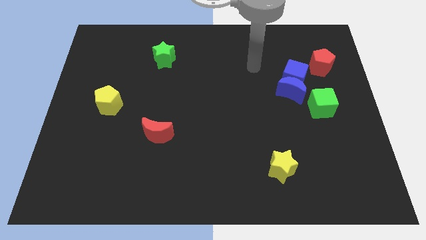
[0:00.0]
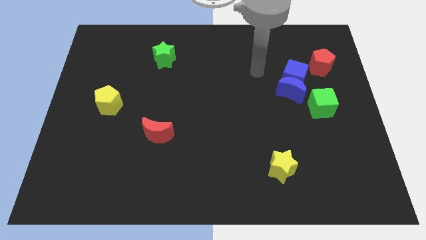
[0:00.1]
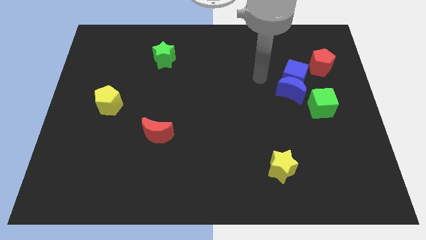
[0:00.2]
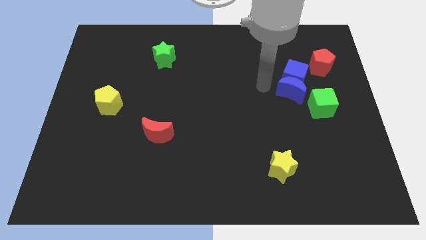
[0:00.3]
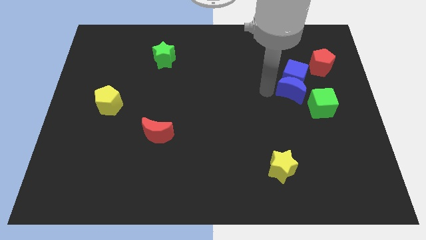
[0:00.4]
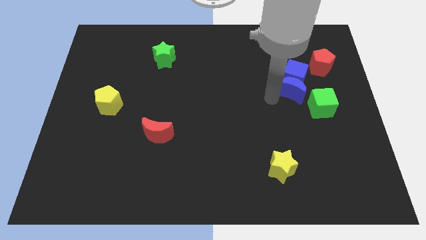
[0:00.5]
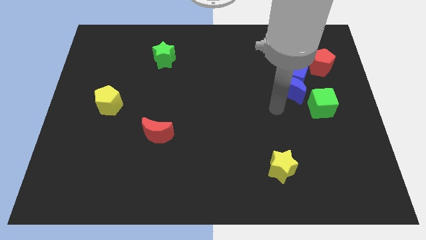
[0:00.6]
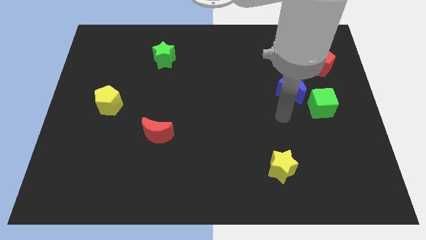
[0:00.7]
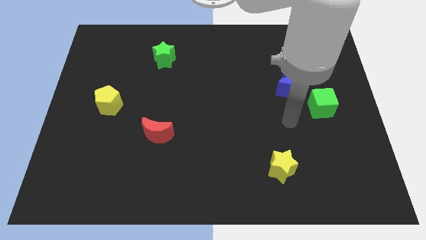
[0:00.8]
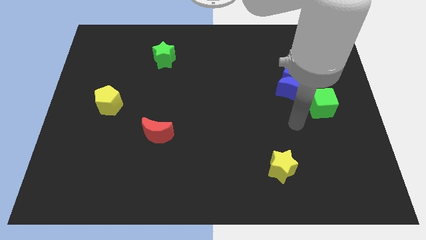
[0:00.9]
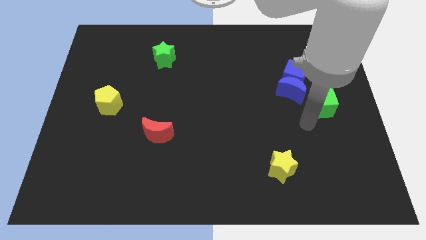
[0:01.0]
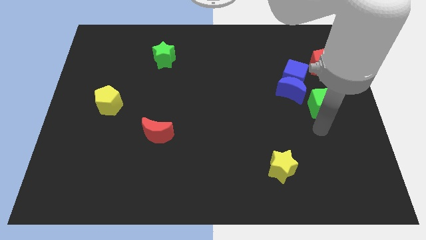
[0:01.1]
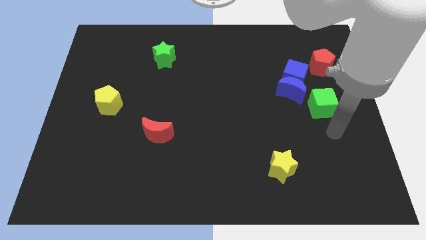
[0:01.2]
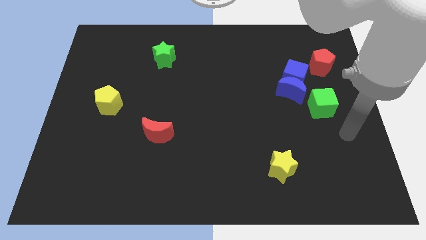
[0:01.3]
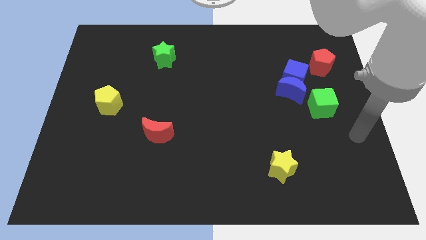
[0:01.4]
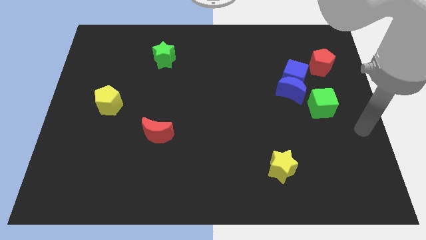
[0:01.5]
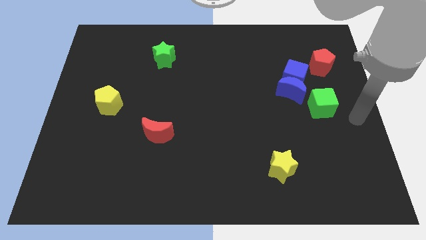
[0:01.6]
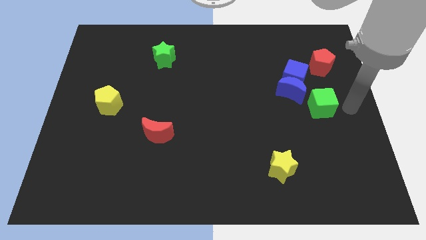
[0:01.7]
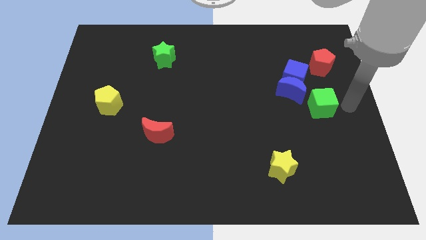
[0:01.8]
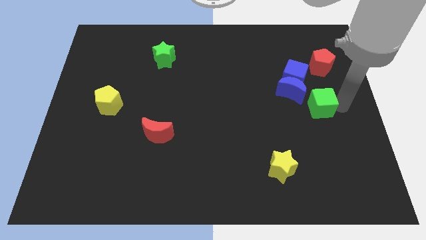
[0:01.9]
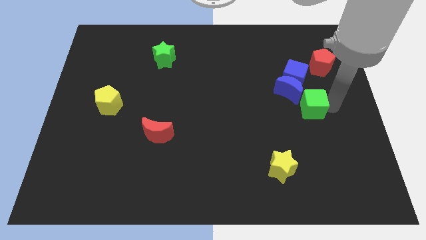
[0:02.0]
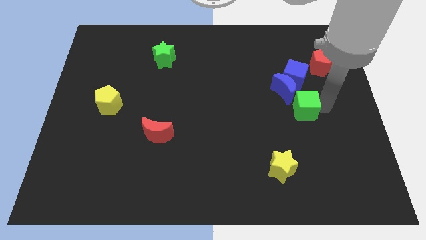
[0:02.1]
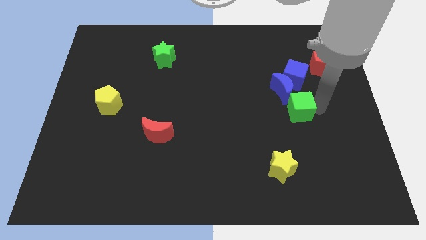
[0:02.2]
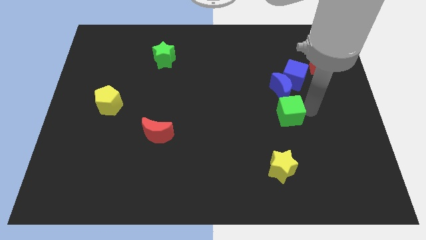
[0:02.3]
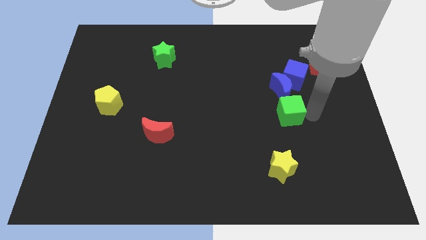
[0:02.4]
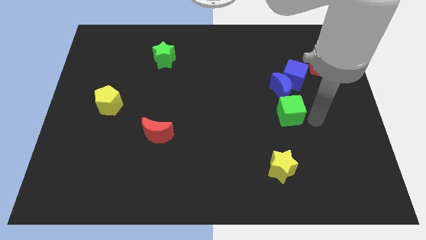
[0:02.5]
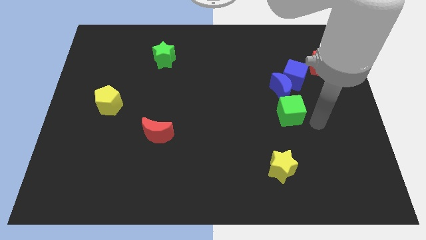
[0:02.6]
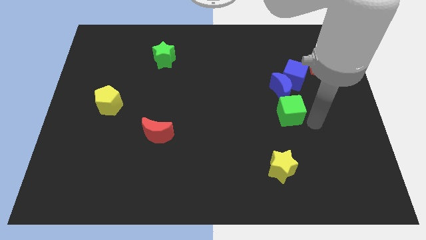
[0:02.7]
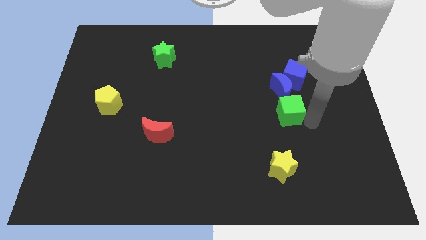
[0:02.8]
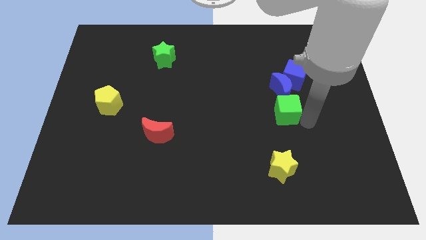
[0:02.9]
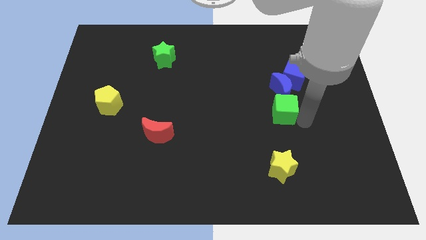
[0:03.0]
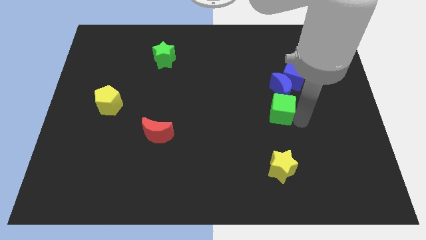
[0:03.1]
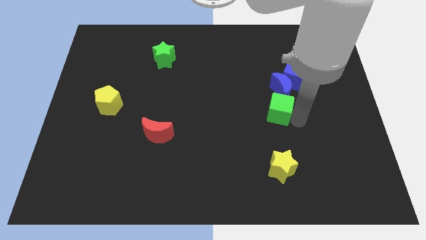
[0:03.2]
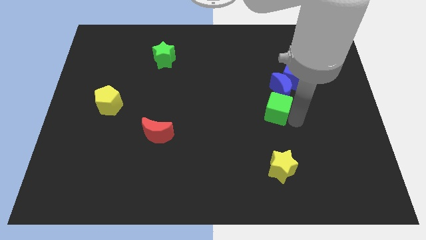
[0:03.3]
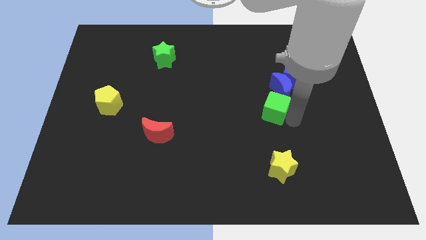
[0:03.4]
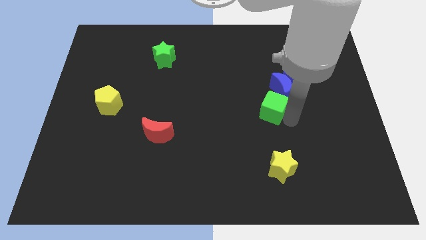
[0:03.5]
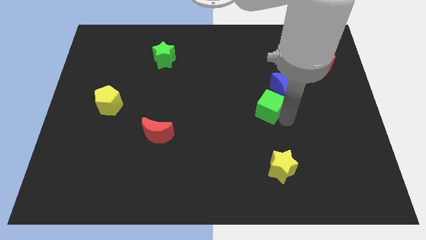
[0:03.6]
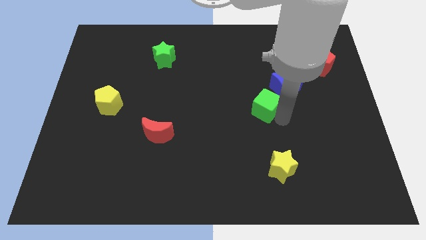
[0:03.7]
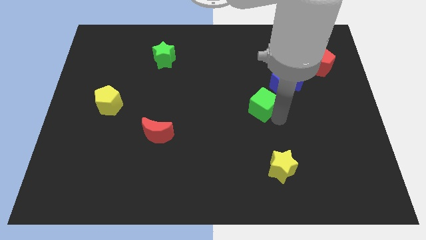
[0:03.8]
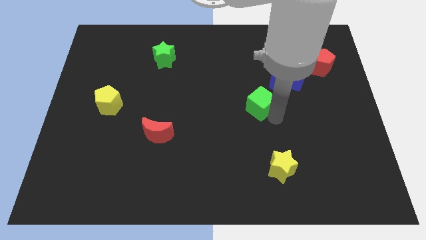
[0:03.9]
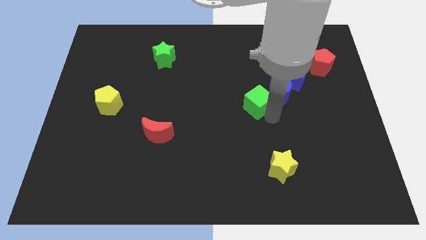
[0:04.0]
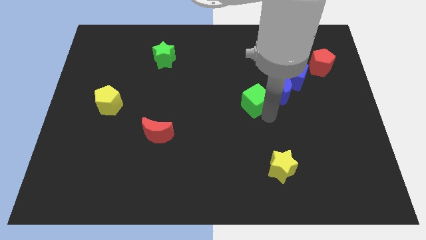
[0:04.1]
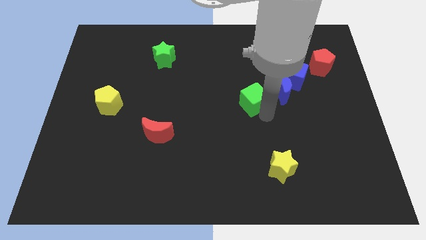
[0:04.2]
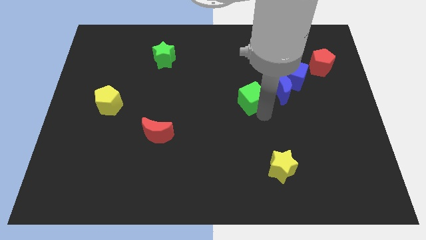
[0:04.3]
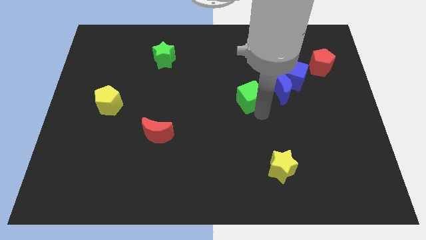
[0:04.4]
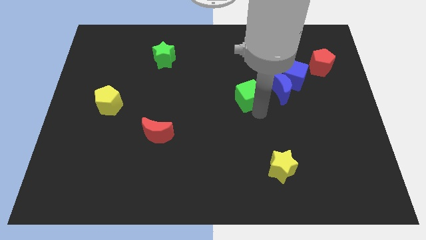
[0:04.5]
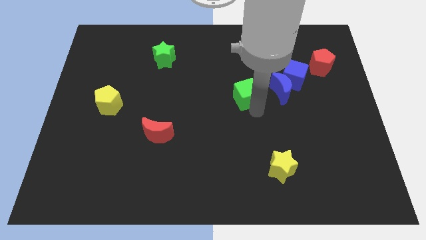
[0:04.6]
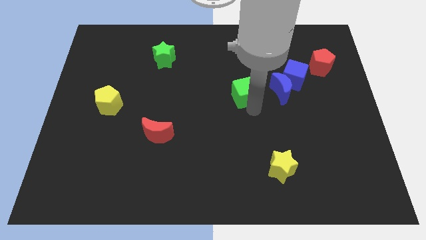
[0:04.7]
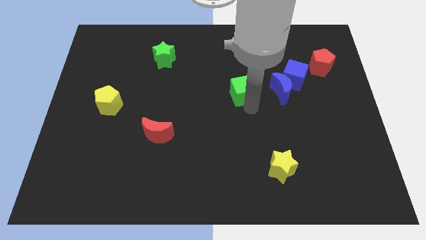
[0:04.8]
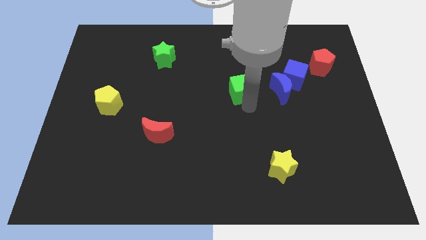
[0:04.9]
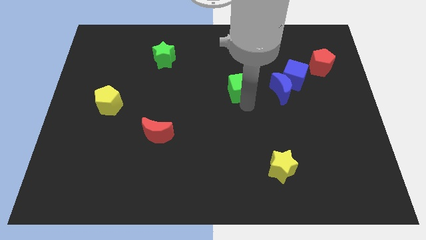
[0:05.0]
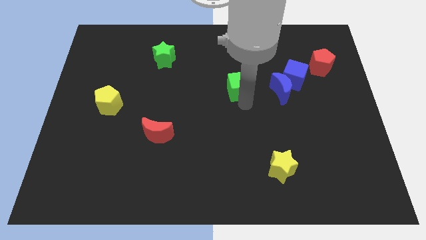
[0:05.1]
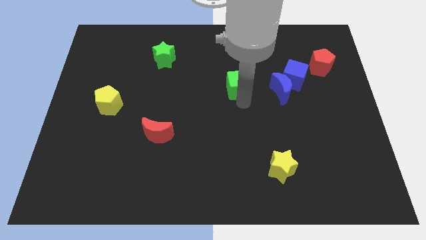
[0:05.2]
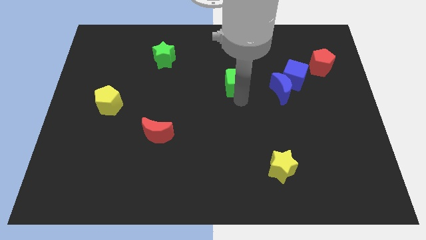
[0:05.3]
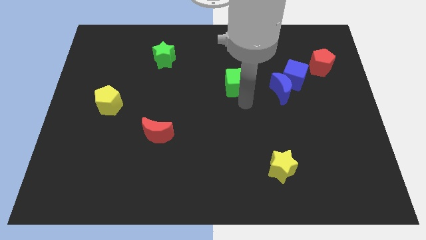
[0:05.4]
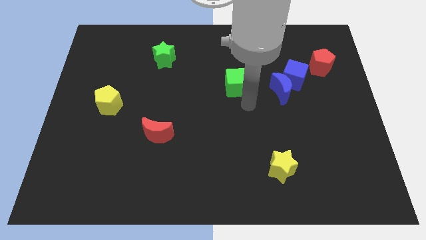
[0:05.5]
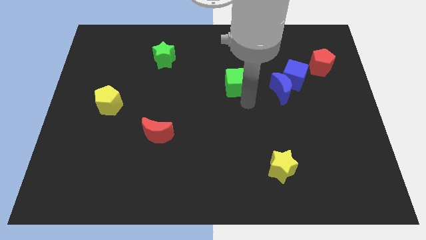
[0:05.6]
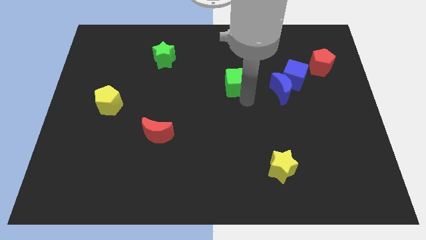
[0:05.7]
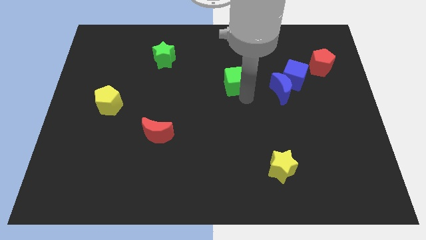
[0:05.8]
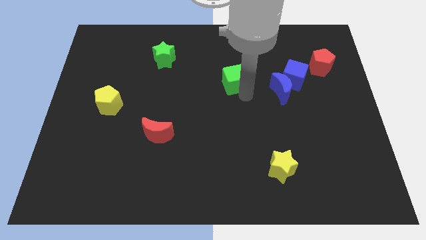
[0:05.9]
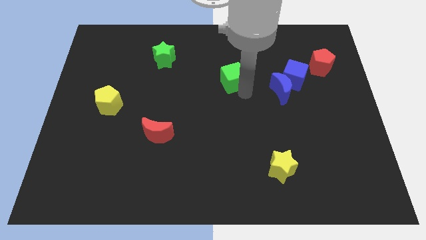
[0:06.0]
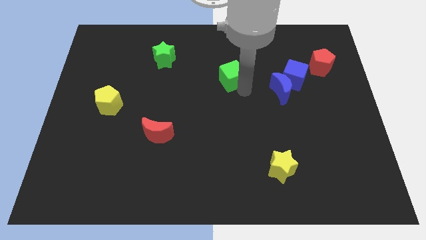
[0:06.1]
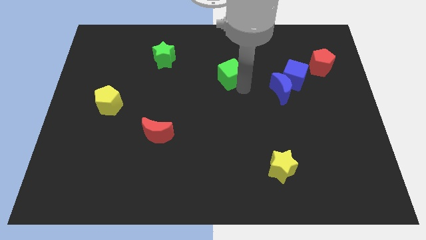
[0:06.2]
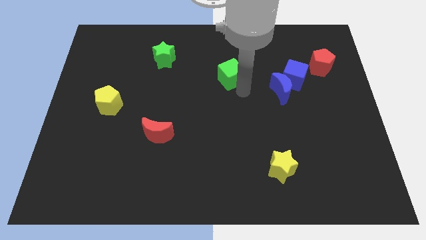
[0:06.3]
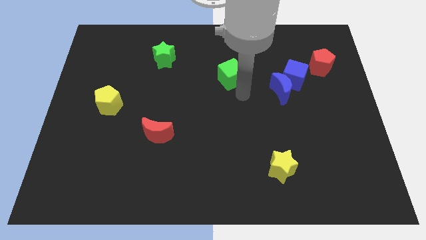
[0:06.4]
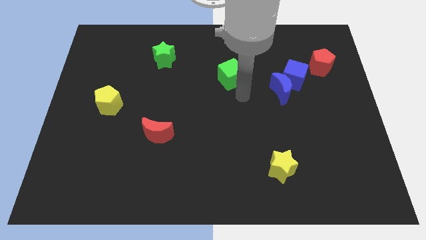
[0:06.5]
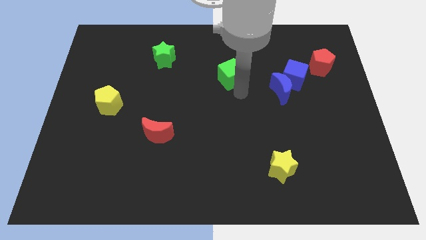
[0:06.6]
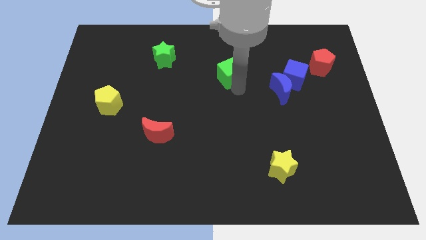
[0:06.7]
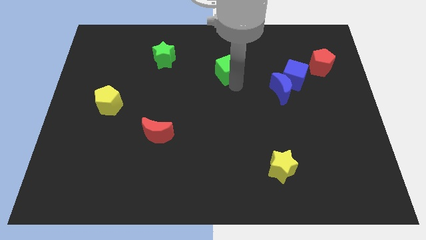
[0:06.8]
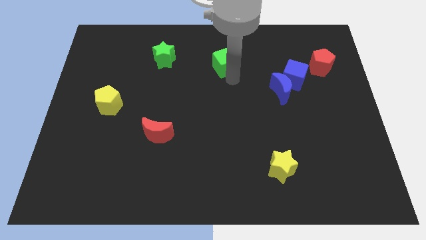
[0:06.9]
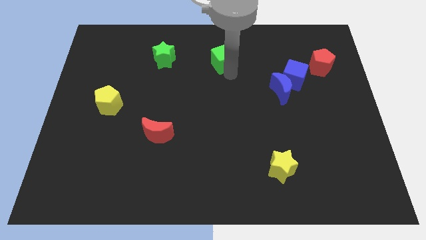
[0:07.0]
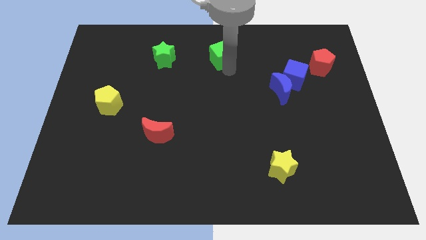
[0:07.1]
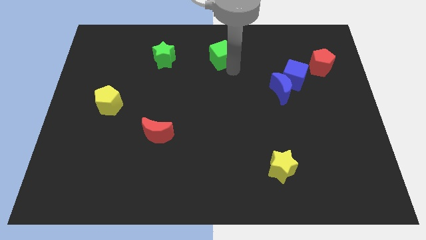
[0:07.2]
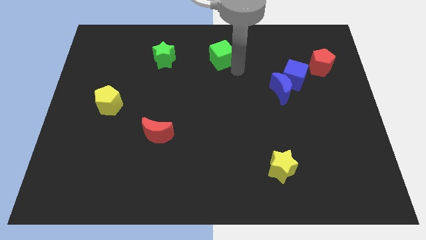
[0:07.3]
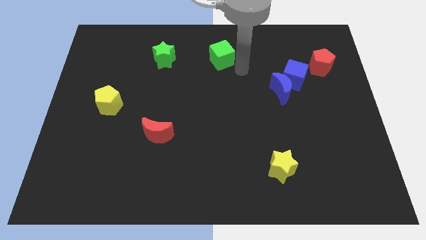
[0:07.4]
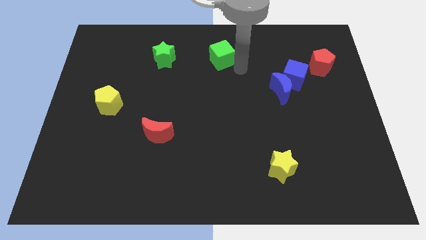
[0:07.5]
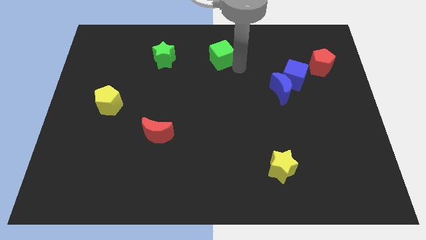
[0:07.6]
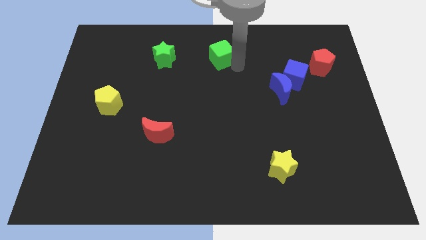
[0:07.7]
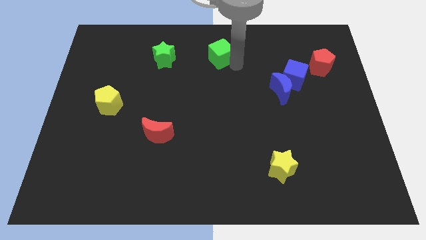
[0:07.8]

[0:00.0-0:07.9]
push the green cube to the towards your base
